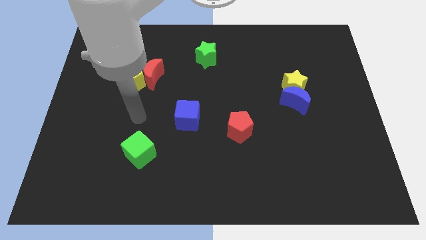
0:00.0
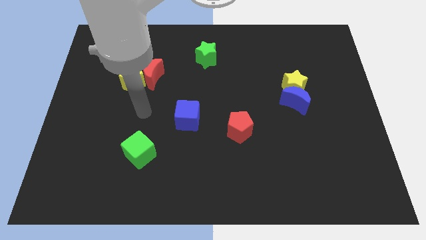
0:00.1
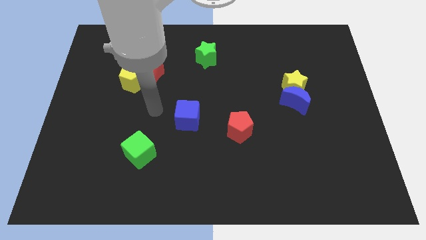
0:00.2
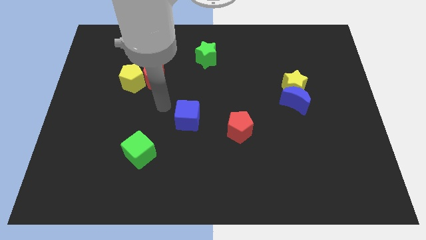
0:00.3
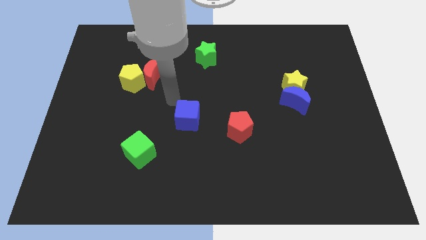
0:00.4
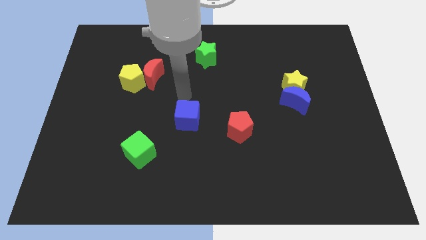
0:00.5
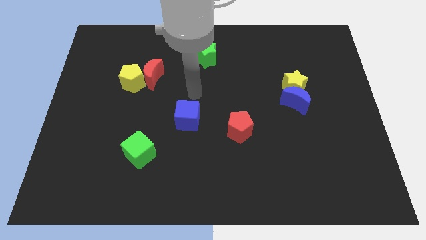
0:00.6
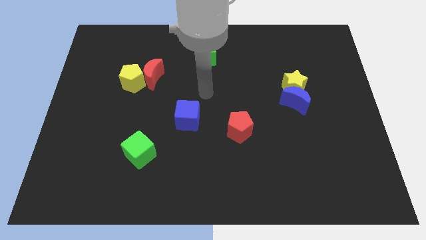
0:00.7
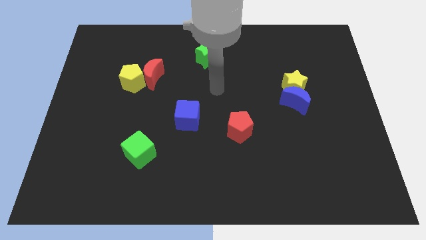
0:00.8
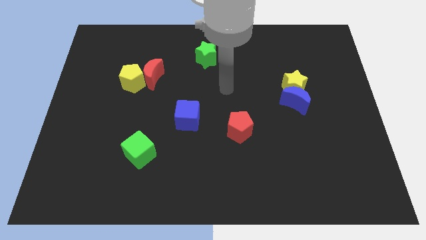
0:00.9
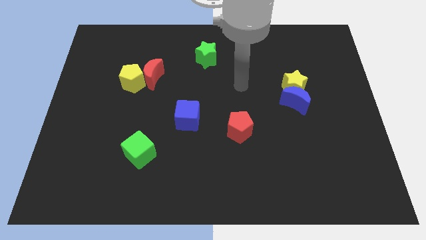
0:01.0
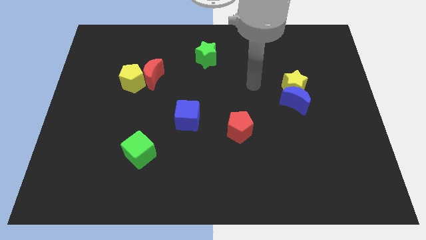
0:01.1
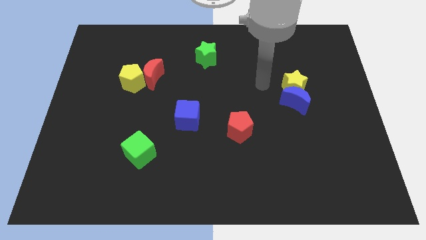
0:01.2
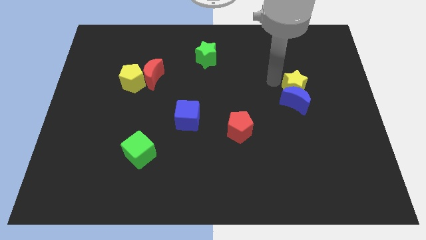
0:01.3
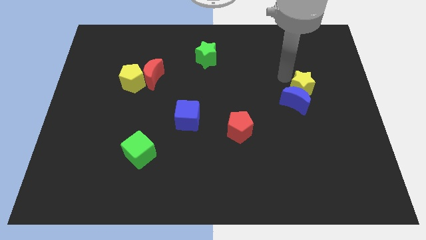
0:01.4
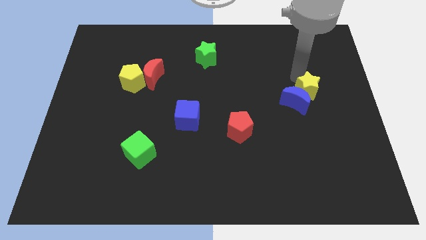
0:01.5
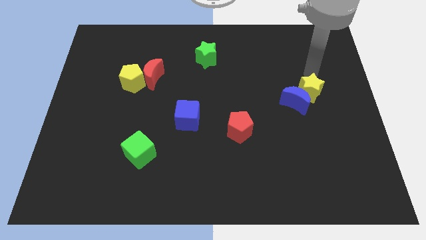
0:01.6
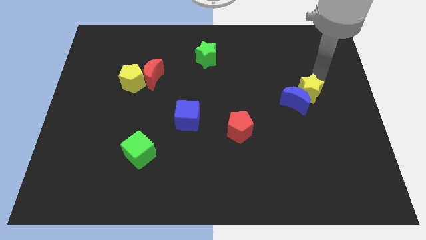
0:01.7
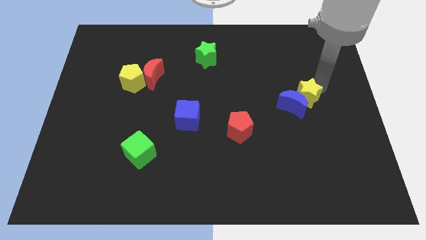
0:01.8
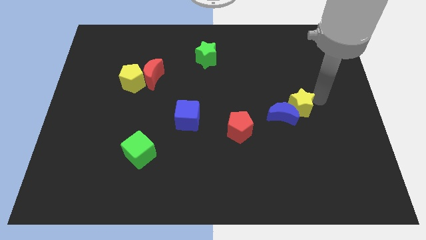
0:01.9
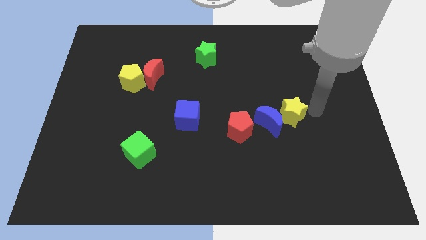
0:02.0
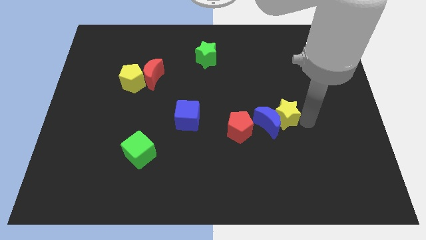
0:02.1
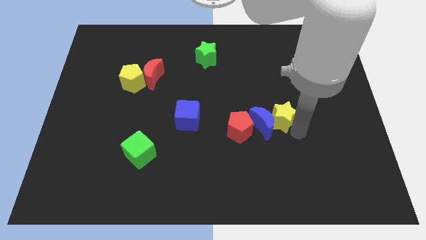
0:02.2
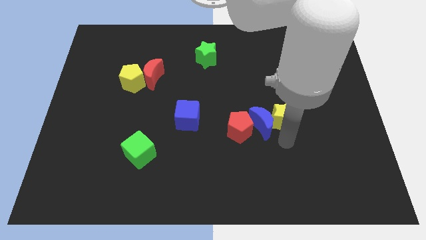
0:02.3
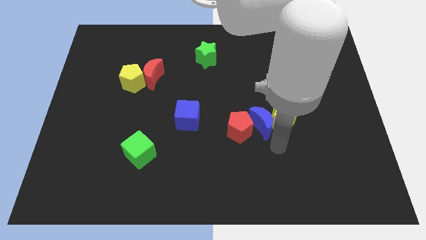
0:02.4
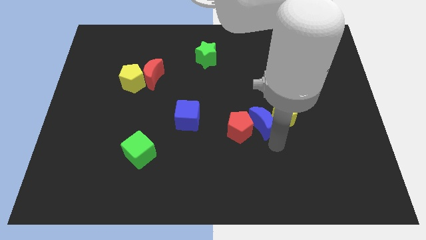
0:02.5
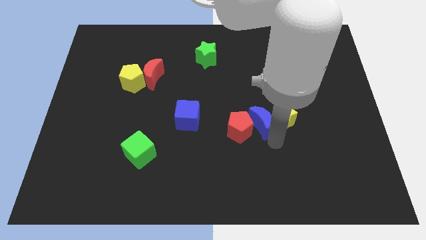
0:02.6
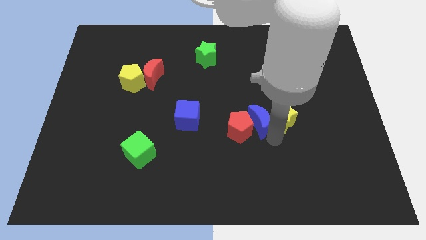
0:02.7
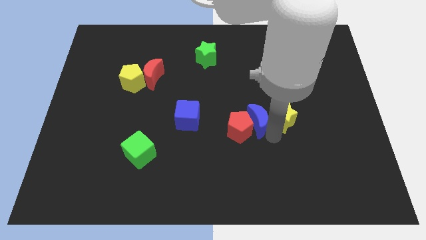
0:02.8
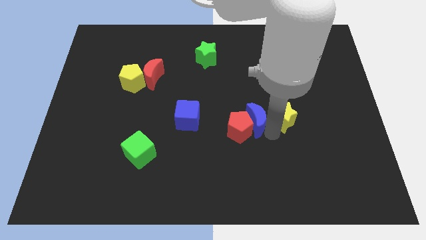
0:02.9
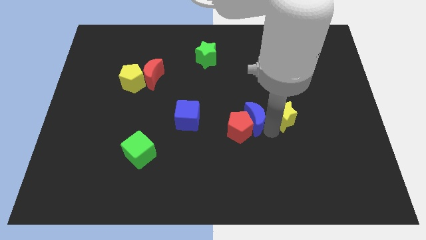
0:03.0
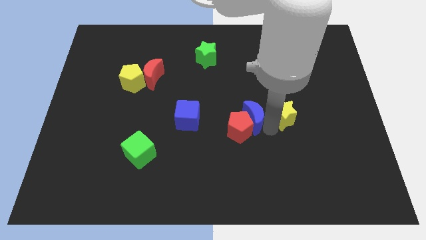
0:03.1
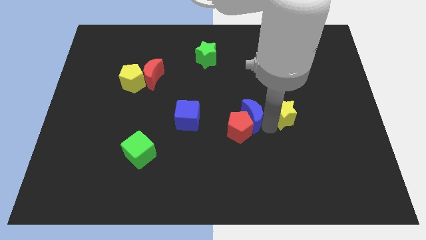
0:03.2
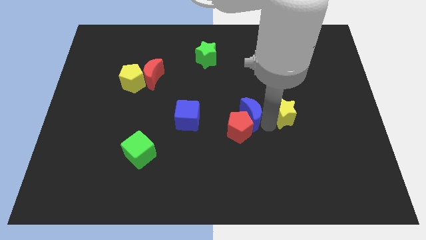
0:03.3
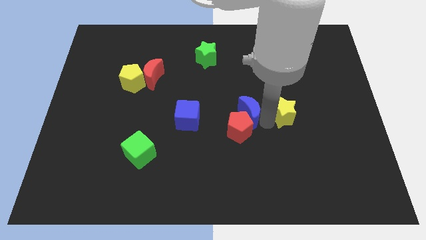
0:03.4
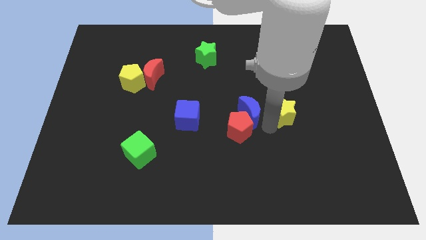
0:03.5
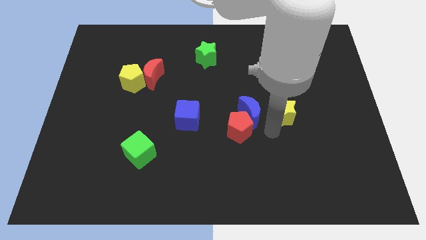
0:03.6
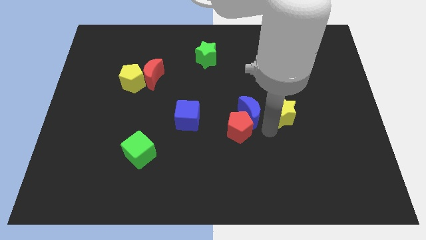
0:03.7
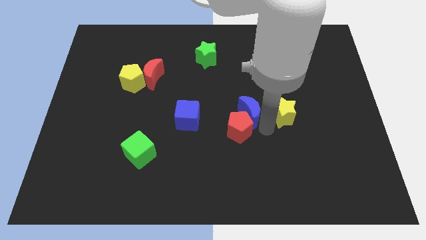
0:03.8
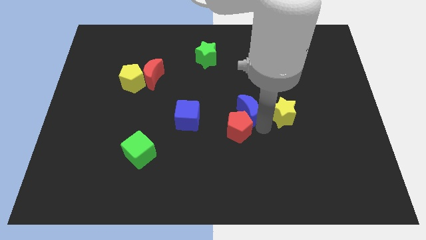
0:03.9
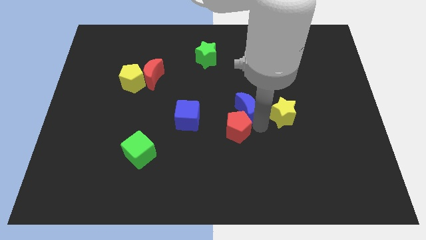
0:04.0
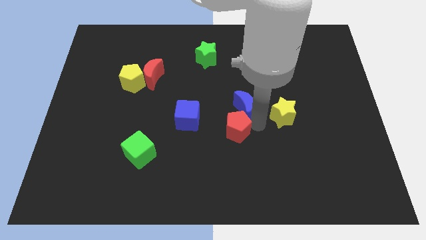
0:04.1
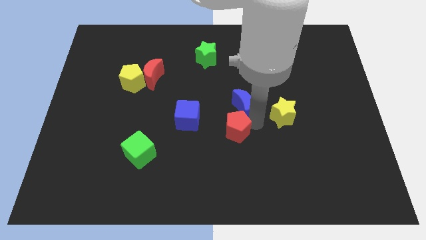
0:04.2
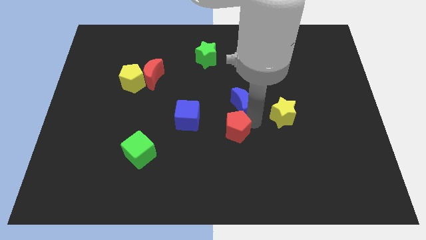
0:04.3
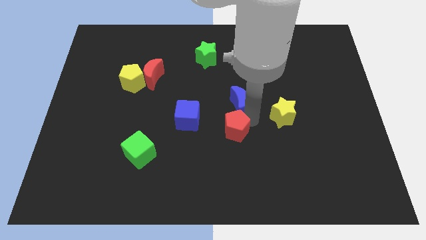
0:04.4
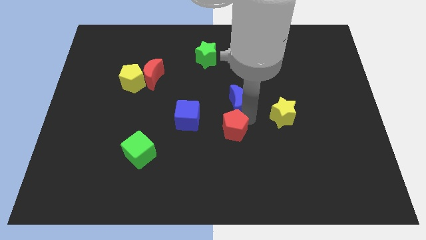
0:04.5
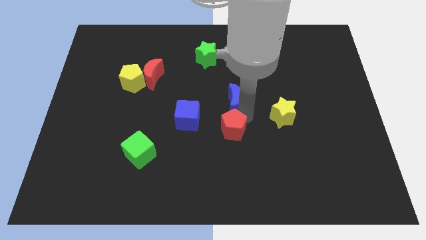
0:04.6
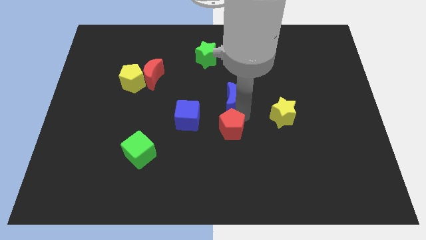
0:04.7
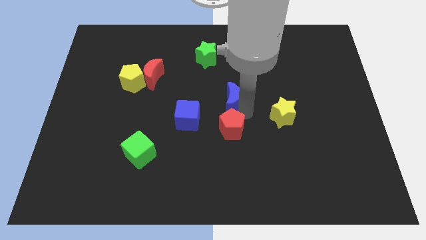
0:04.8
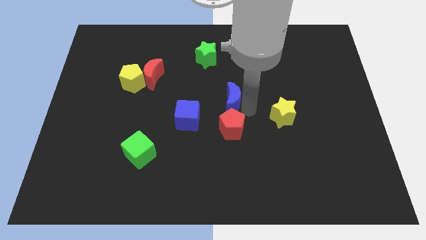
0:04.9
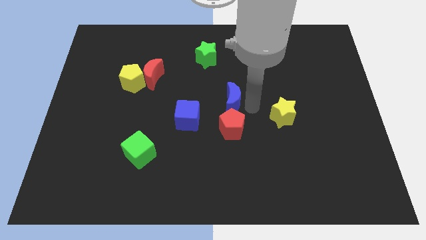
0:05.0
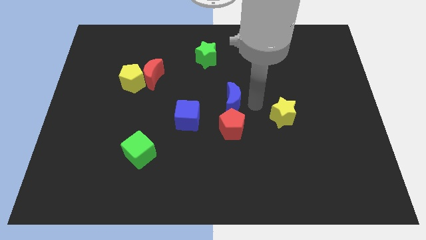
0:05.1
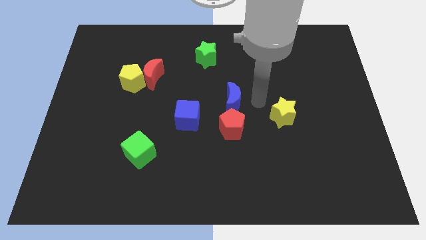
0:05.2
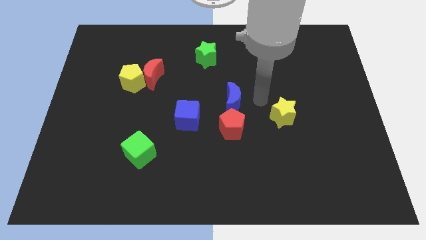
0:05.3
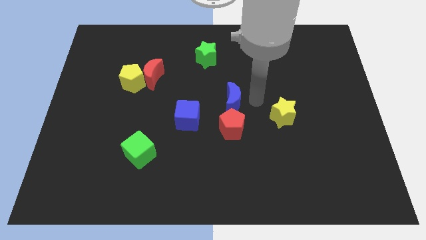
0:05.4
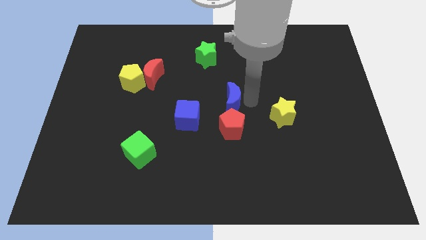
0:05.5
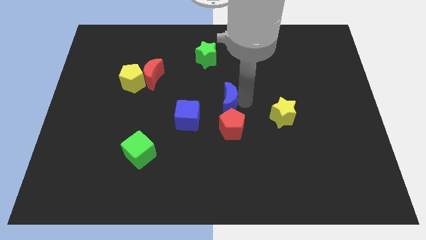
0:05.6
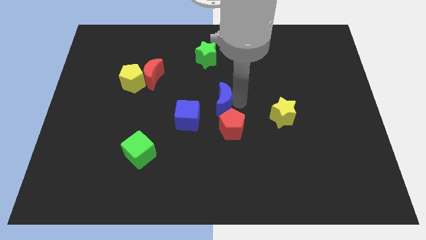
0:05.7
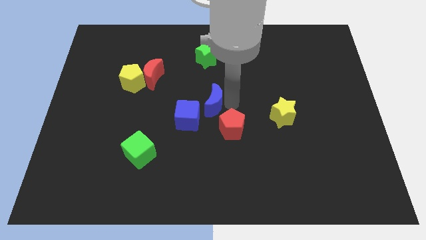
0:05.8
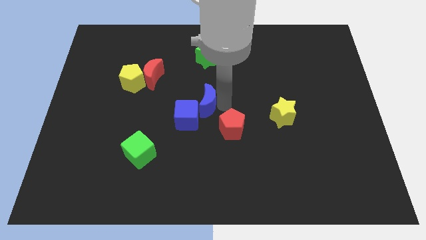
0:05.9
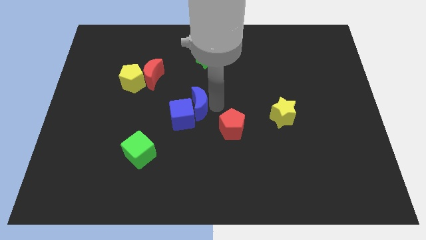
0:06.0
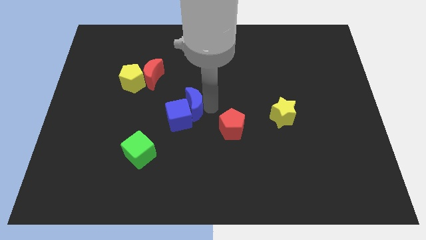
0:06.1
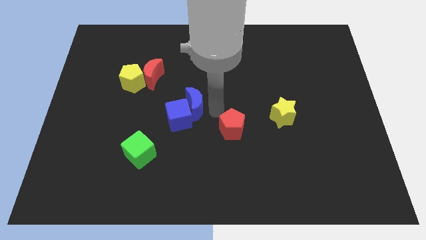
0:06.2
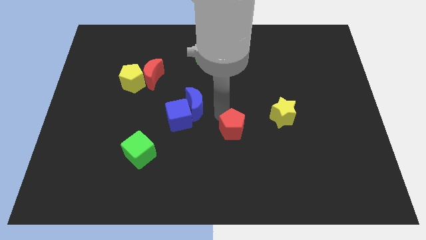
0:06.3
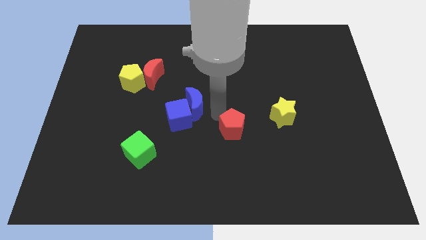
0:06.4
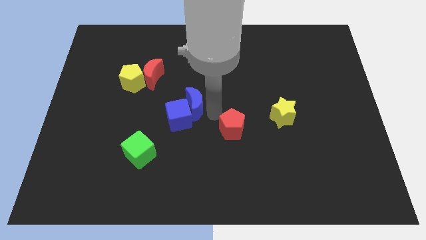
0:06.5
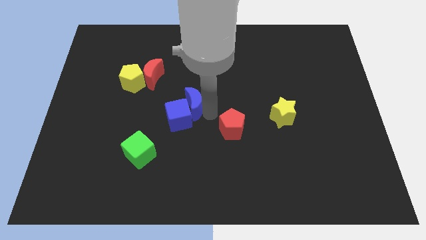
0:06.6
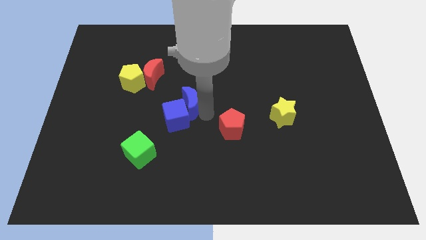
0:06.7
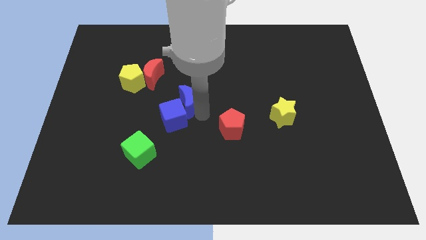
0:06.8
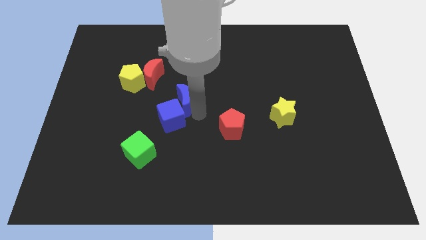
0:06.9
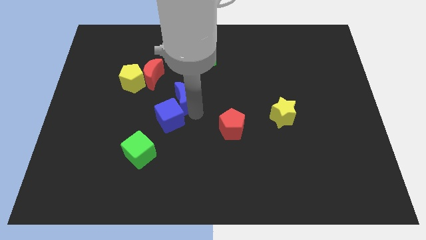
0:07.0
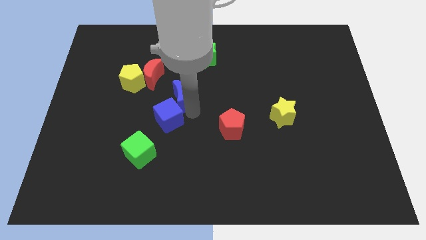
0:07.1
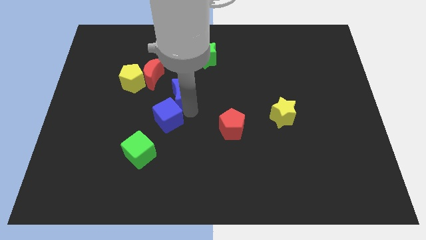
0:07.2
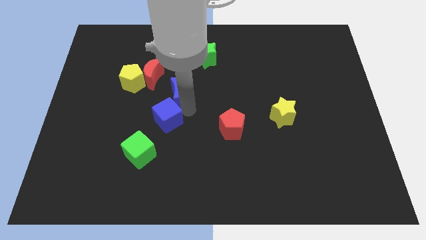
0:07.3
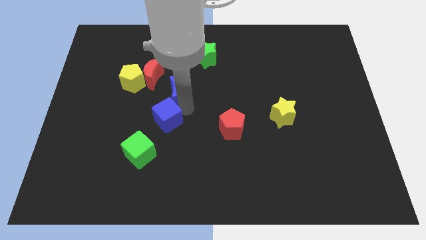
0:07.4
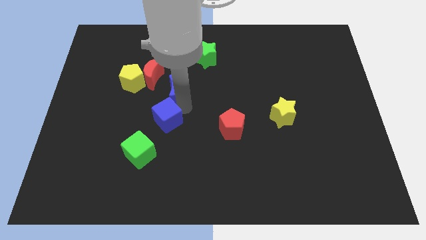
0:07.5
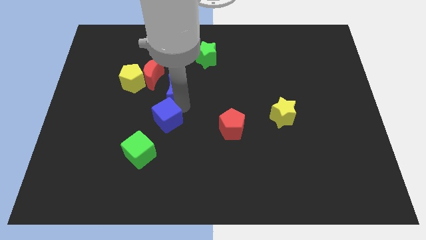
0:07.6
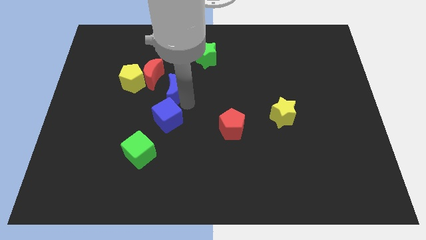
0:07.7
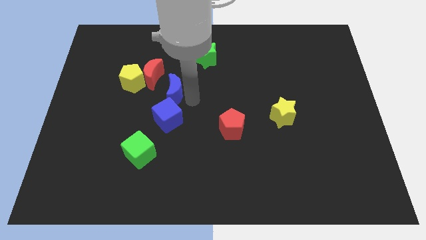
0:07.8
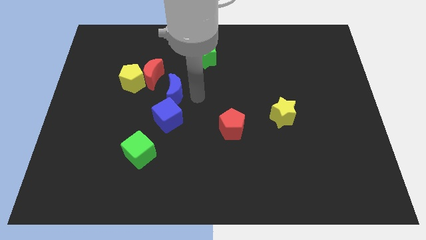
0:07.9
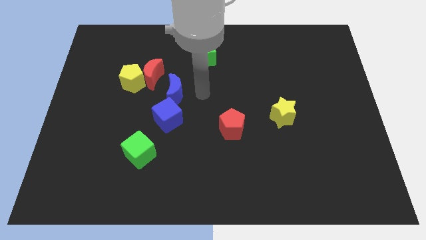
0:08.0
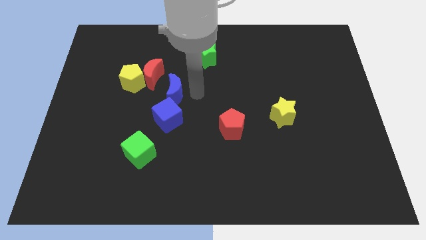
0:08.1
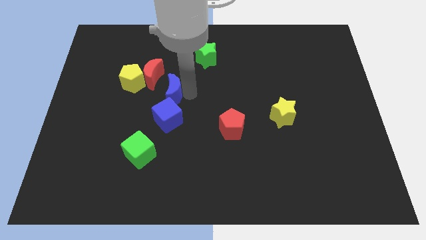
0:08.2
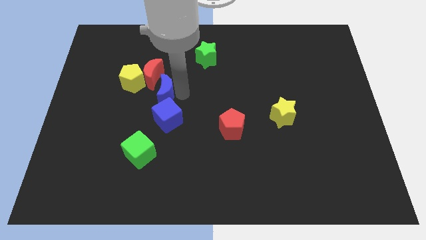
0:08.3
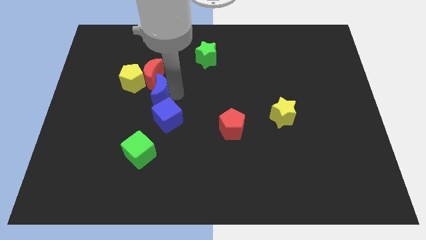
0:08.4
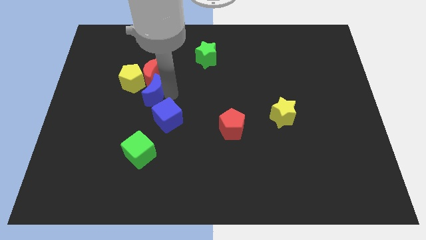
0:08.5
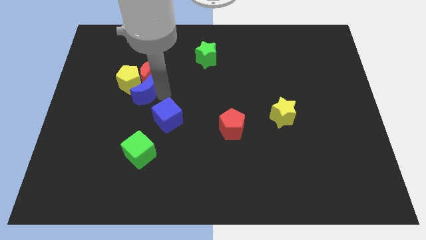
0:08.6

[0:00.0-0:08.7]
move the blue moon close to the yellow pentagon
